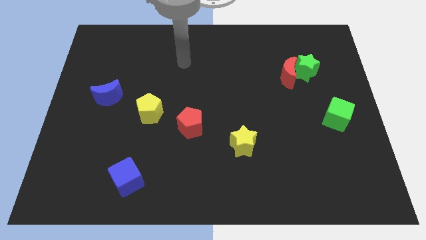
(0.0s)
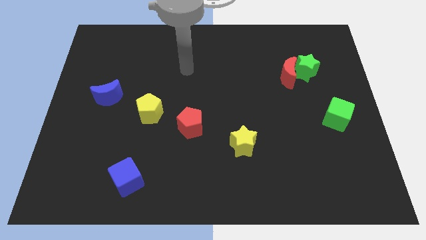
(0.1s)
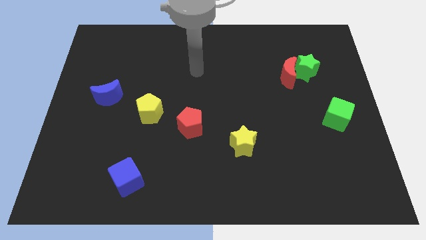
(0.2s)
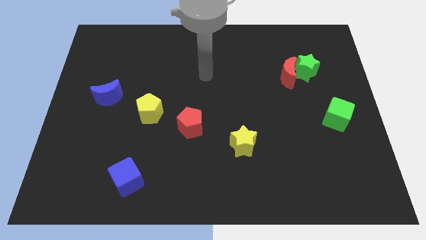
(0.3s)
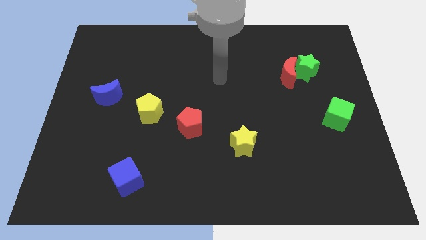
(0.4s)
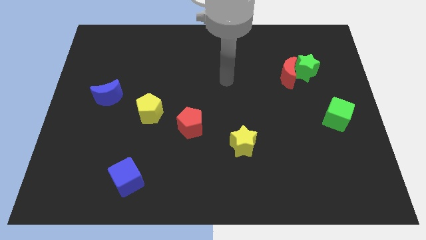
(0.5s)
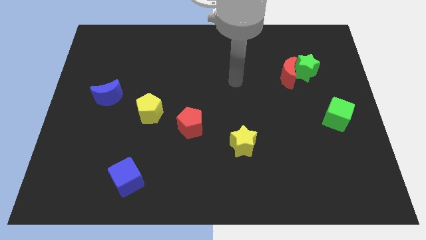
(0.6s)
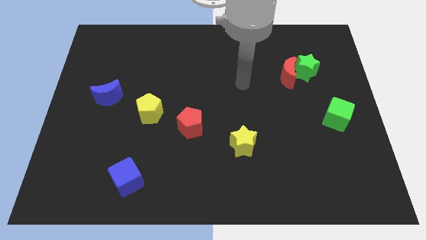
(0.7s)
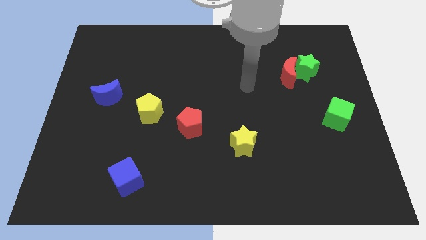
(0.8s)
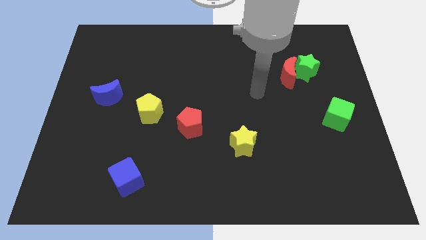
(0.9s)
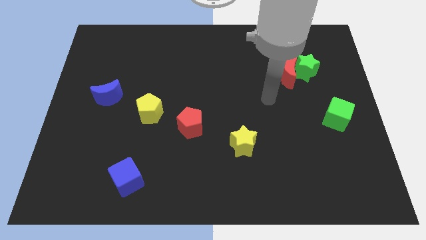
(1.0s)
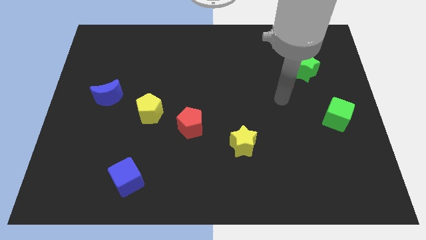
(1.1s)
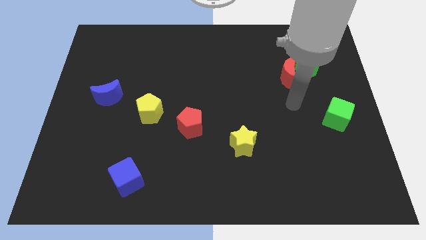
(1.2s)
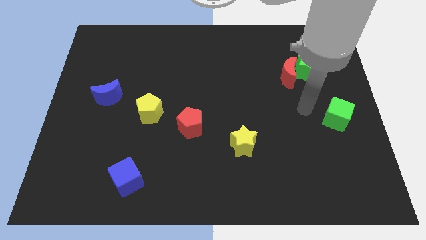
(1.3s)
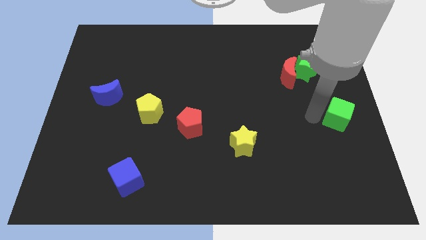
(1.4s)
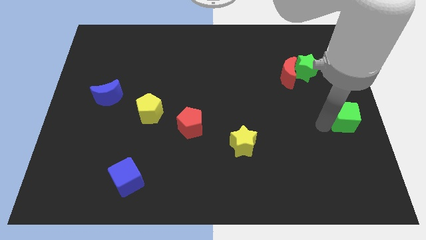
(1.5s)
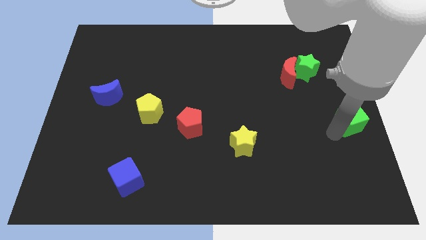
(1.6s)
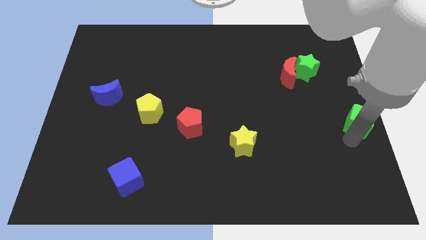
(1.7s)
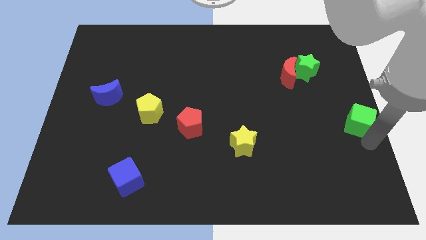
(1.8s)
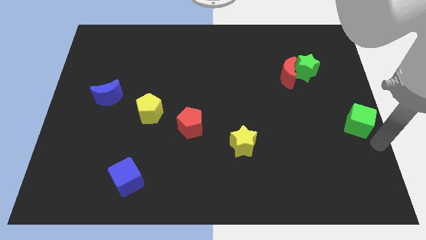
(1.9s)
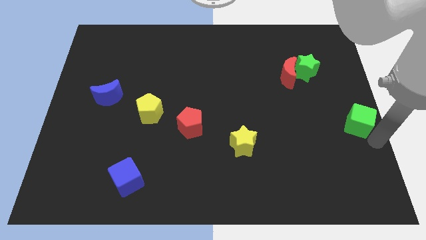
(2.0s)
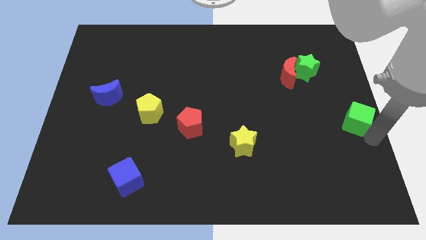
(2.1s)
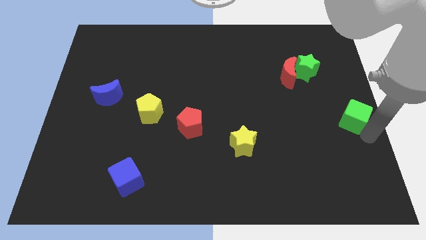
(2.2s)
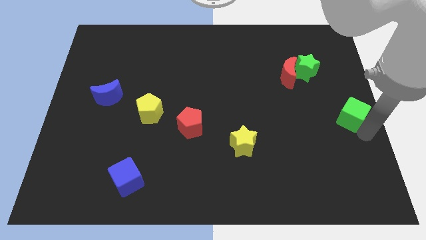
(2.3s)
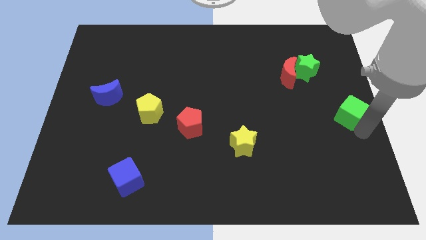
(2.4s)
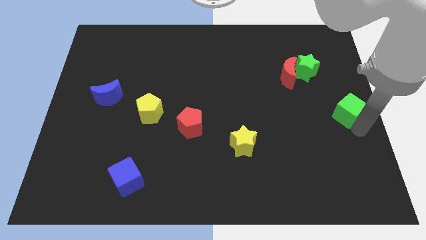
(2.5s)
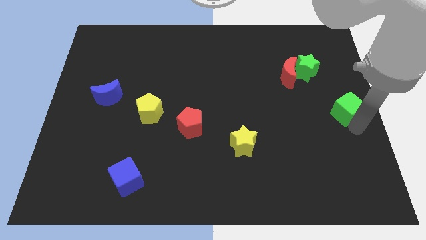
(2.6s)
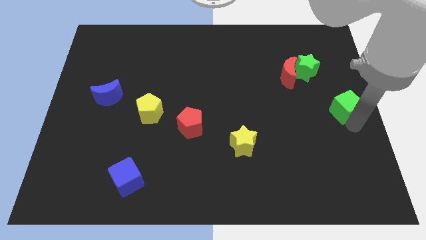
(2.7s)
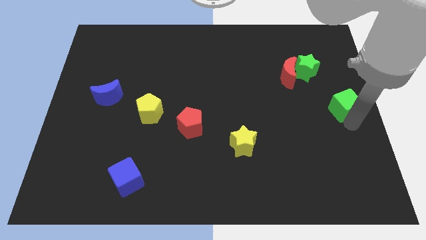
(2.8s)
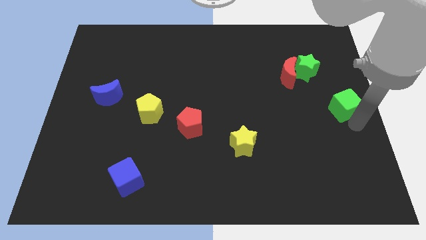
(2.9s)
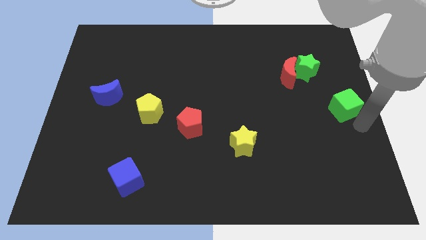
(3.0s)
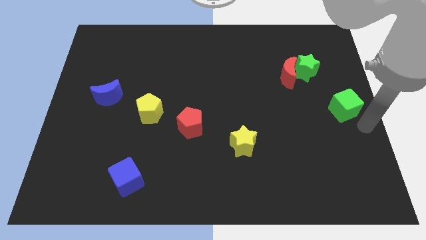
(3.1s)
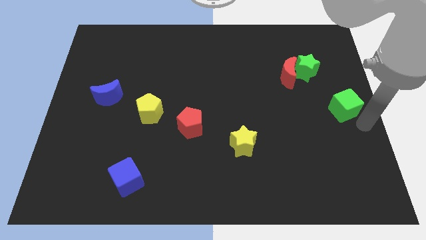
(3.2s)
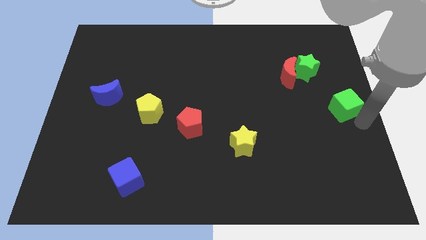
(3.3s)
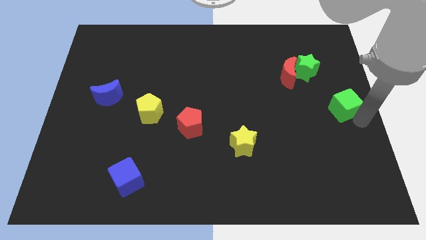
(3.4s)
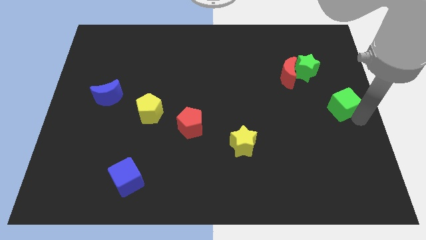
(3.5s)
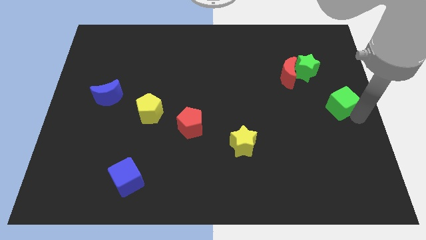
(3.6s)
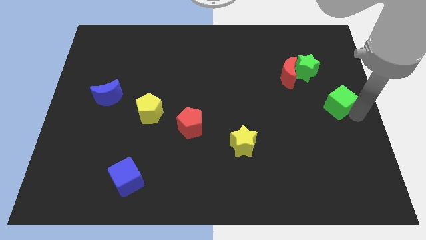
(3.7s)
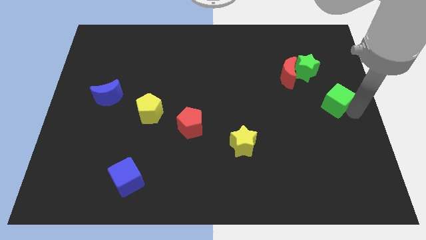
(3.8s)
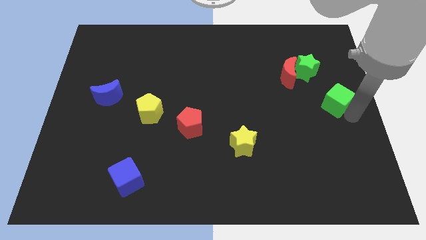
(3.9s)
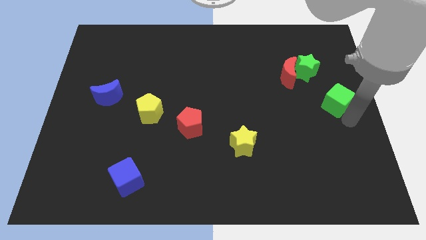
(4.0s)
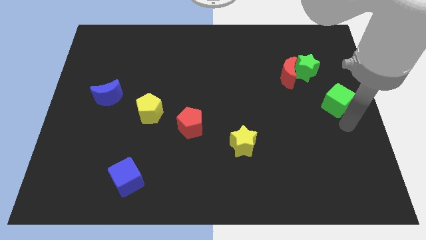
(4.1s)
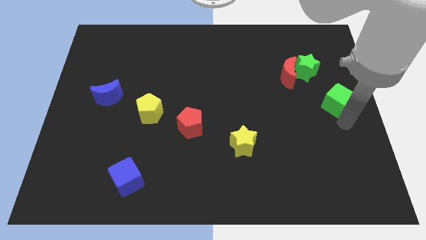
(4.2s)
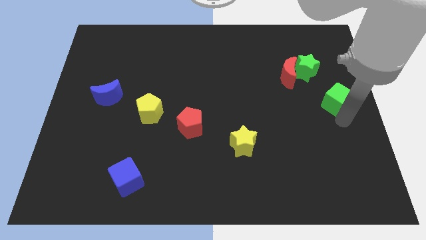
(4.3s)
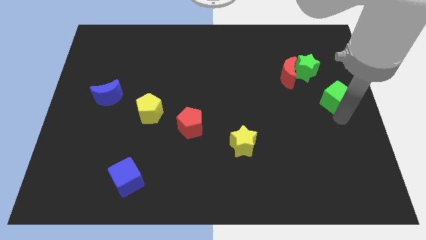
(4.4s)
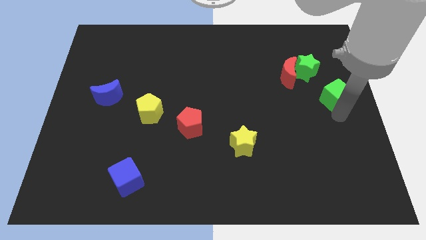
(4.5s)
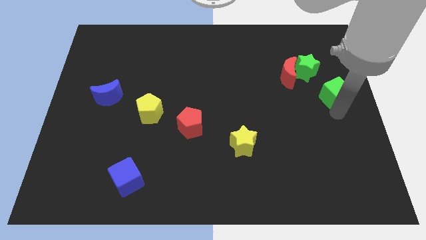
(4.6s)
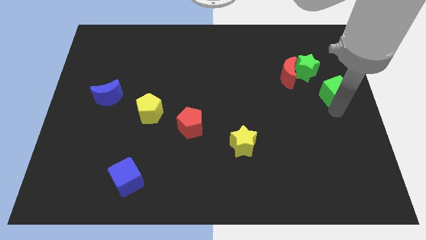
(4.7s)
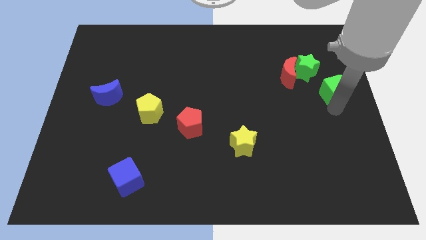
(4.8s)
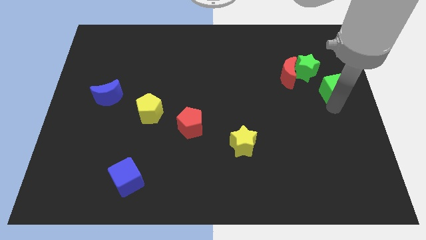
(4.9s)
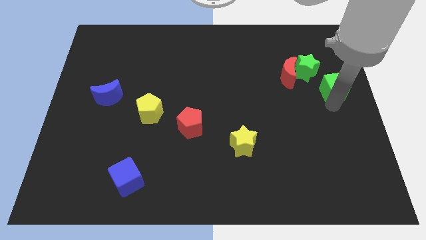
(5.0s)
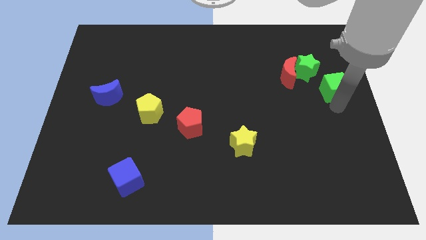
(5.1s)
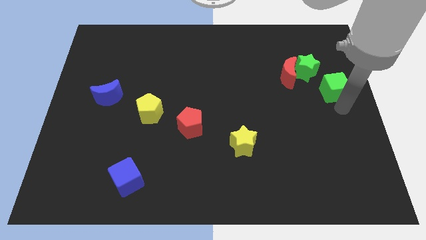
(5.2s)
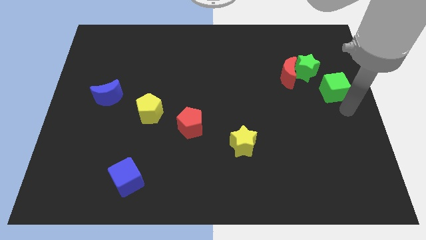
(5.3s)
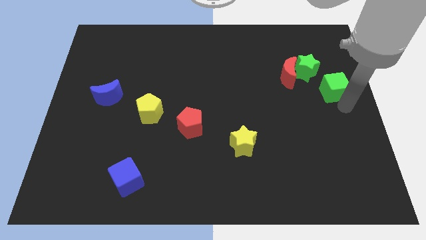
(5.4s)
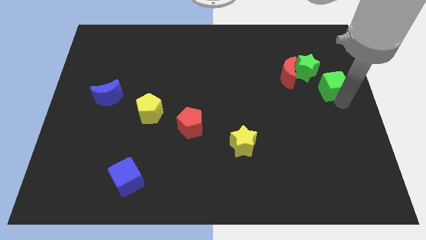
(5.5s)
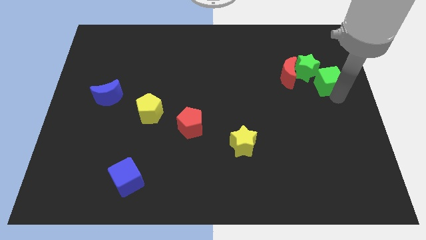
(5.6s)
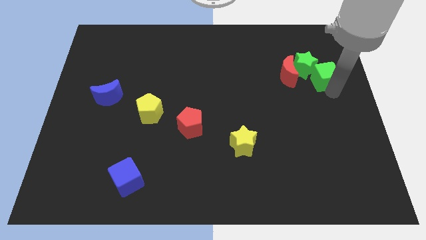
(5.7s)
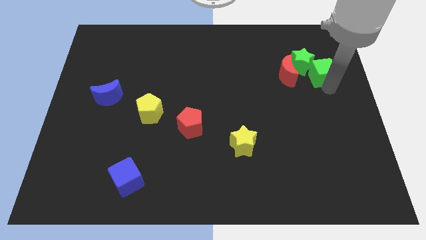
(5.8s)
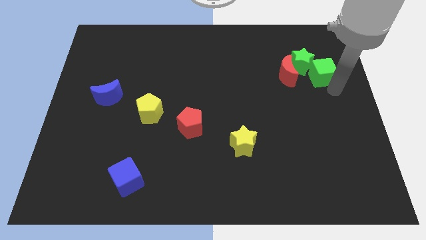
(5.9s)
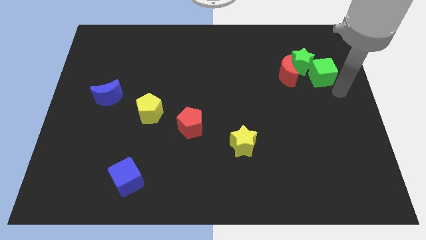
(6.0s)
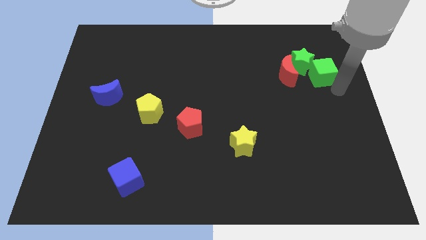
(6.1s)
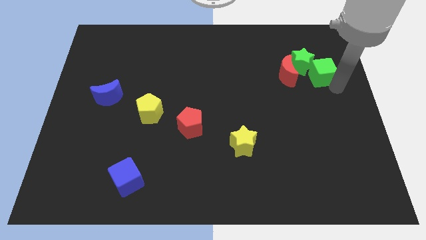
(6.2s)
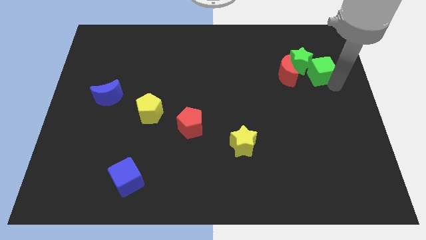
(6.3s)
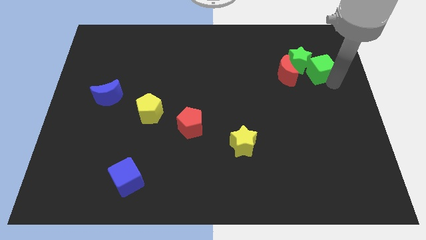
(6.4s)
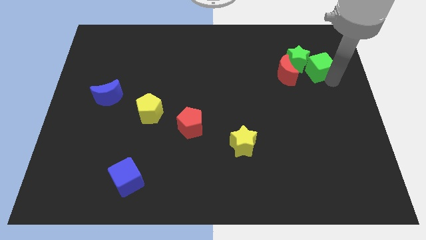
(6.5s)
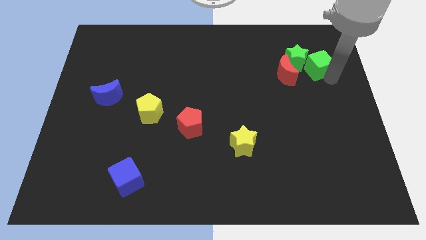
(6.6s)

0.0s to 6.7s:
slide the green cube to the top right of the red moon

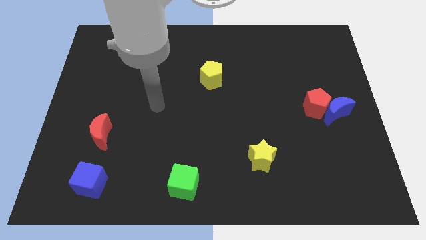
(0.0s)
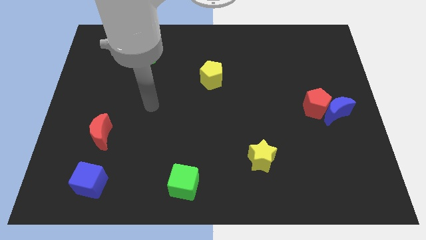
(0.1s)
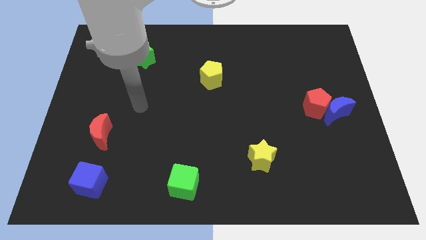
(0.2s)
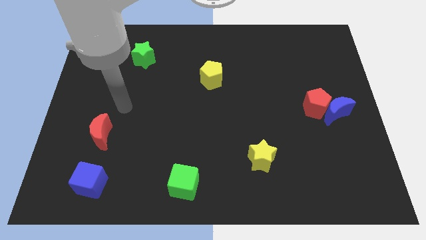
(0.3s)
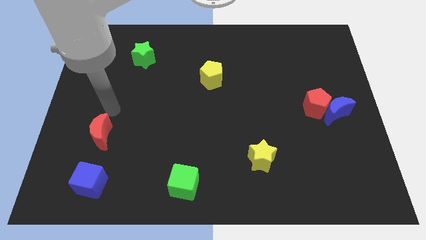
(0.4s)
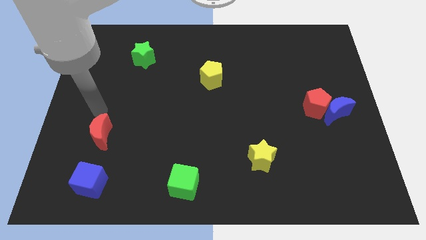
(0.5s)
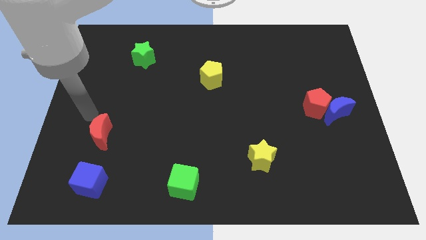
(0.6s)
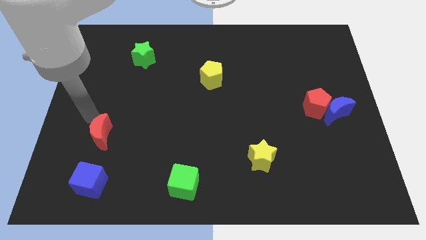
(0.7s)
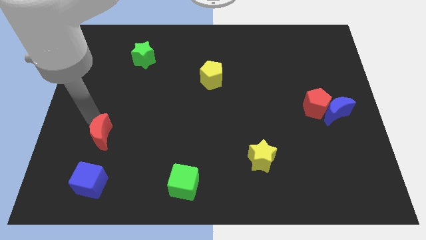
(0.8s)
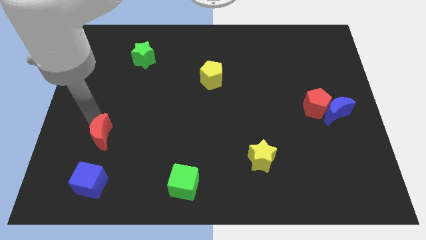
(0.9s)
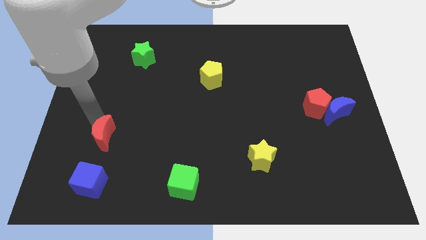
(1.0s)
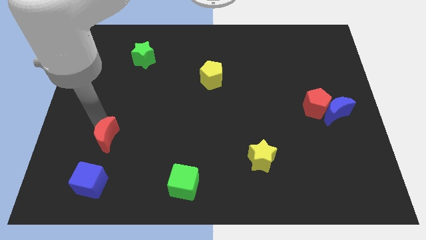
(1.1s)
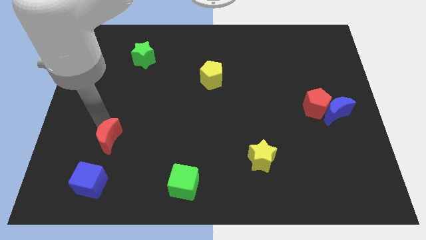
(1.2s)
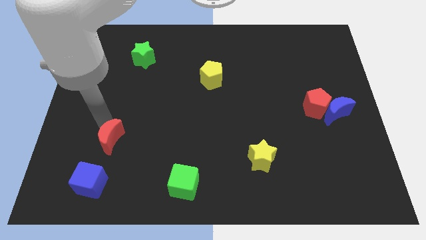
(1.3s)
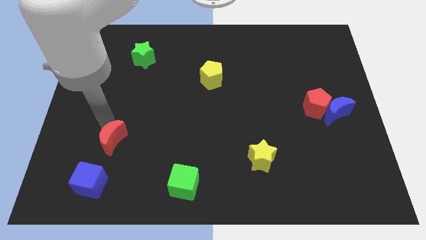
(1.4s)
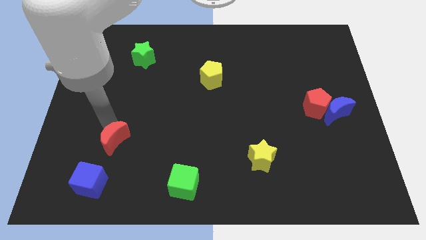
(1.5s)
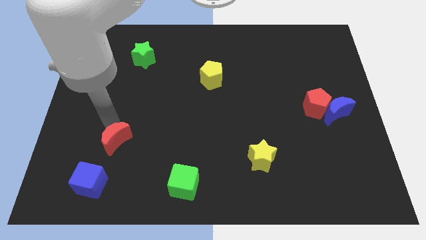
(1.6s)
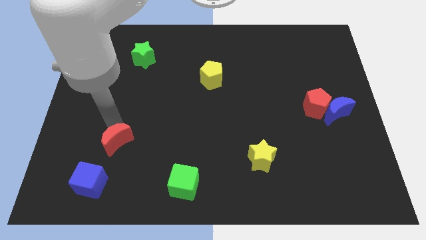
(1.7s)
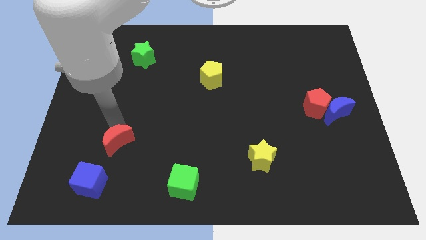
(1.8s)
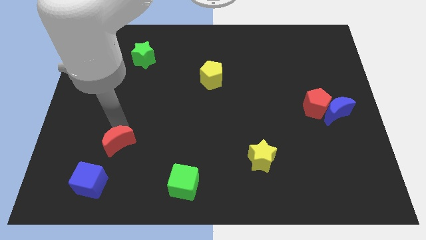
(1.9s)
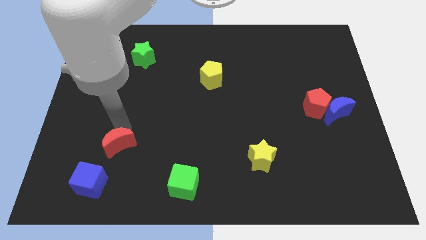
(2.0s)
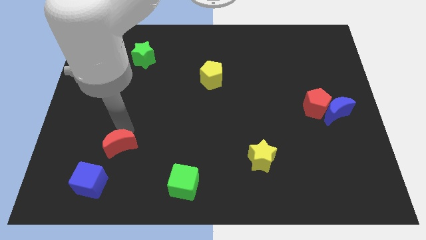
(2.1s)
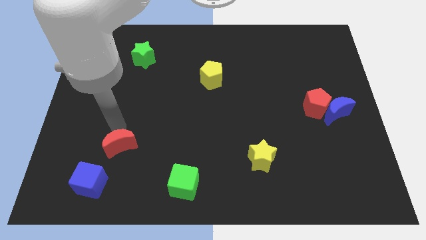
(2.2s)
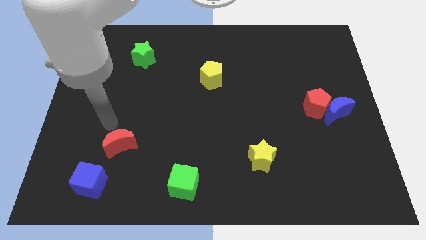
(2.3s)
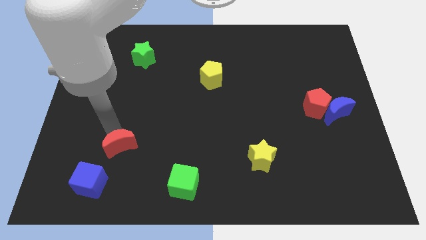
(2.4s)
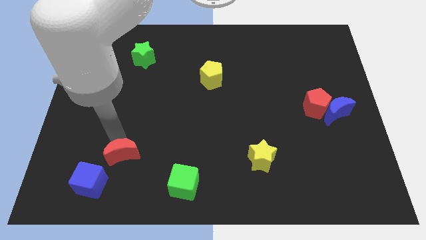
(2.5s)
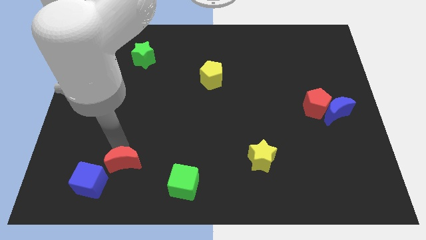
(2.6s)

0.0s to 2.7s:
push the red moon to the right side of the blue cube
